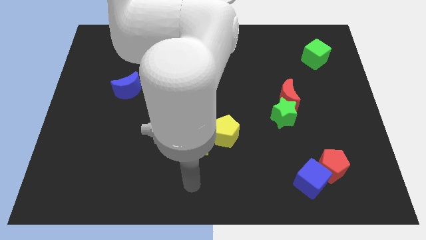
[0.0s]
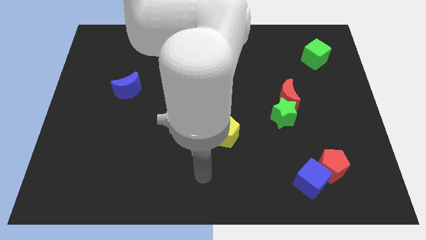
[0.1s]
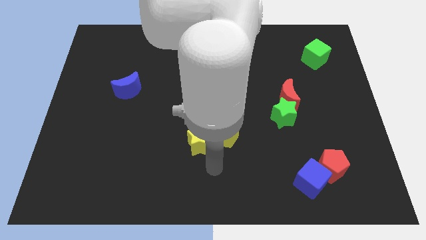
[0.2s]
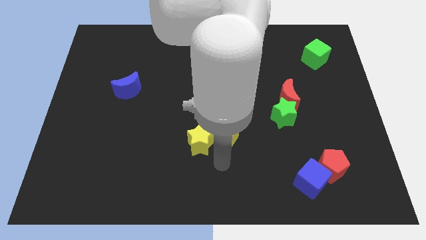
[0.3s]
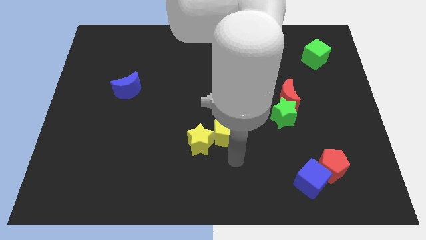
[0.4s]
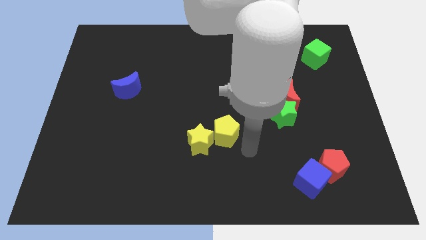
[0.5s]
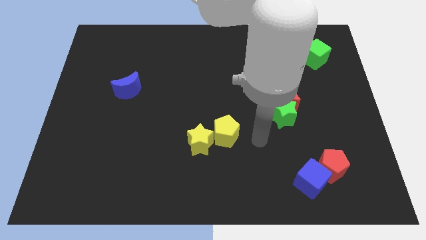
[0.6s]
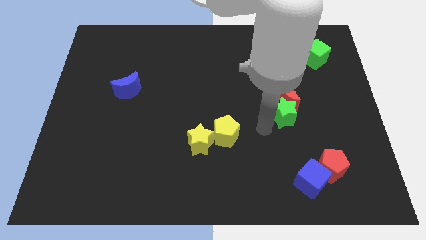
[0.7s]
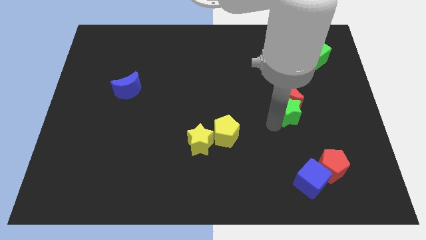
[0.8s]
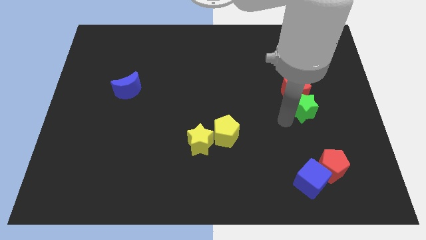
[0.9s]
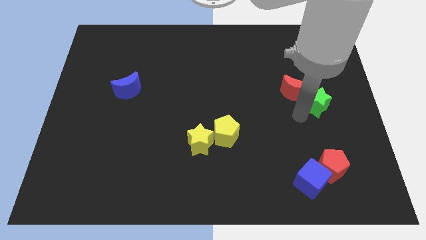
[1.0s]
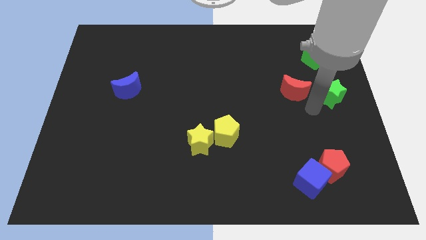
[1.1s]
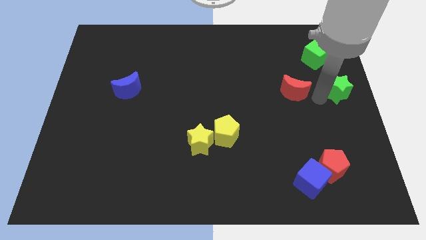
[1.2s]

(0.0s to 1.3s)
pull the red moon apart from the green star

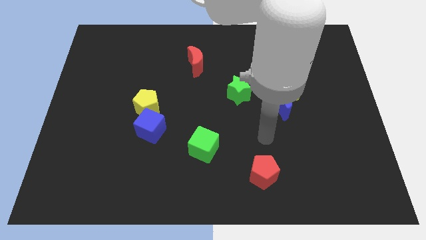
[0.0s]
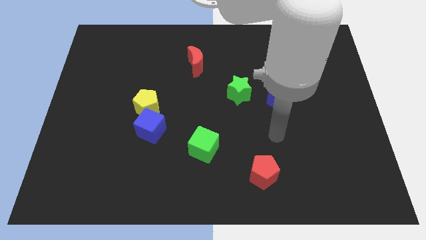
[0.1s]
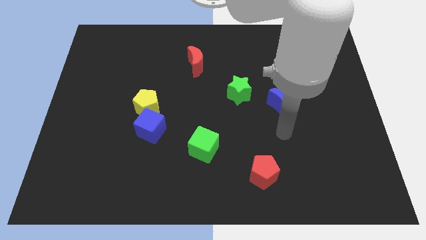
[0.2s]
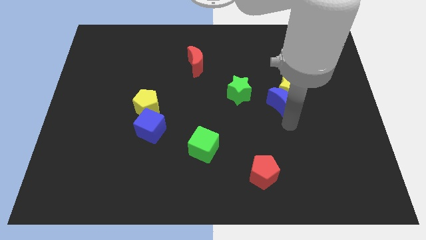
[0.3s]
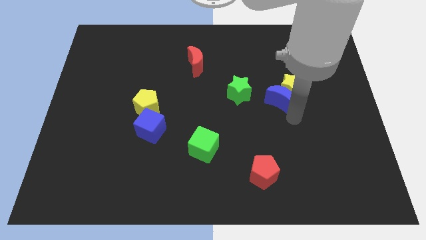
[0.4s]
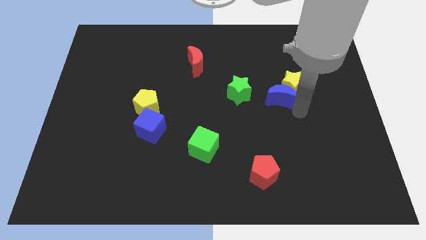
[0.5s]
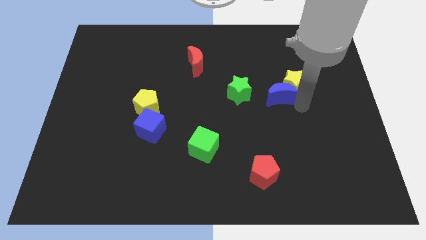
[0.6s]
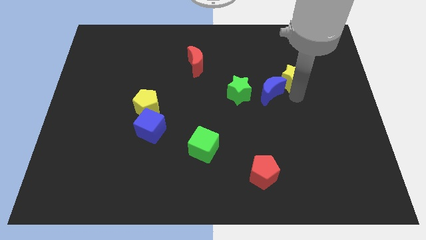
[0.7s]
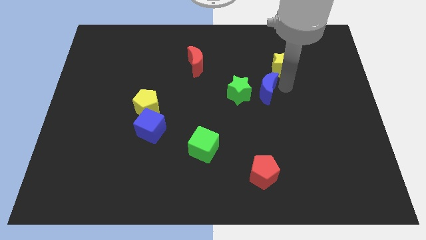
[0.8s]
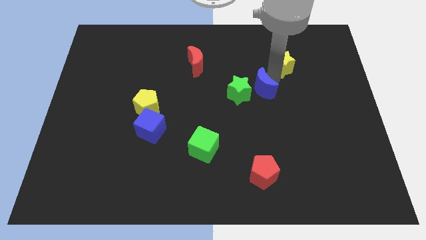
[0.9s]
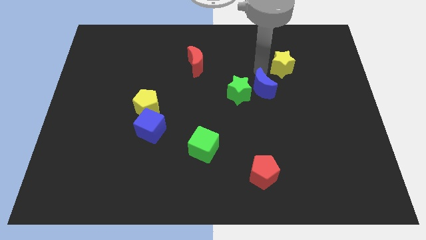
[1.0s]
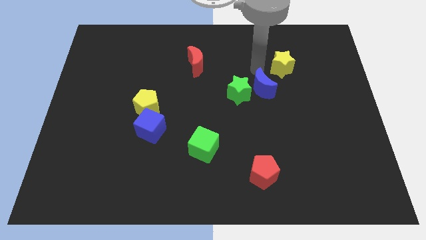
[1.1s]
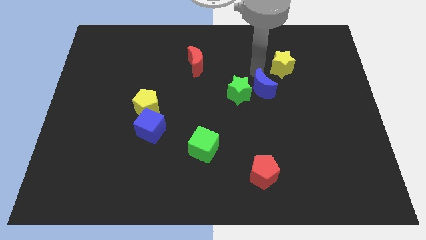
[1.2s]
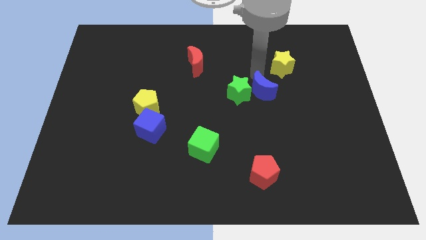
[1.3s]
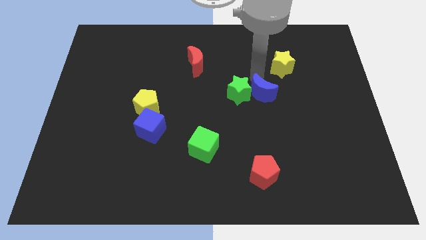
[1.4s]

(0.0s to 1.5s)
pull the blue moon apart from the yellow star

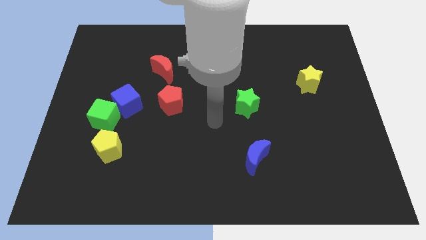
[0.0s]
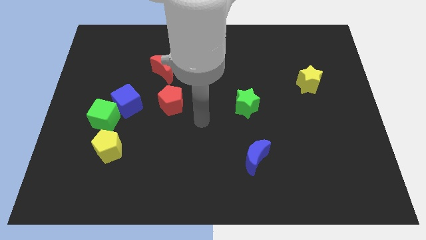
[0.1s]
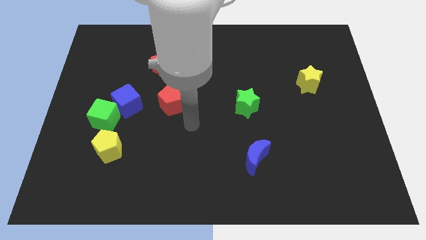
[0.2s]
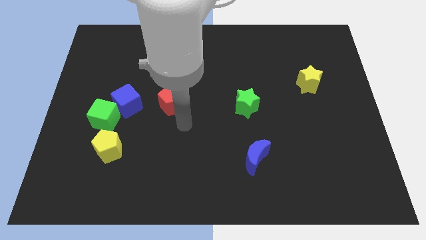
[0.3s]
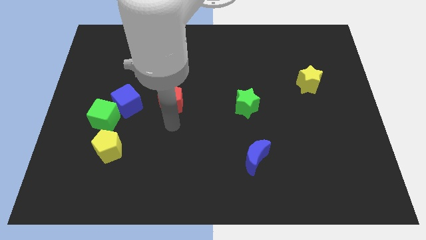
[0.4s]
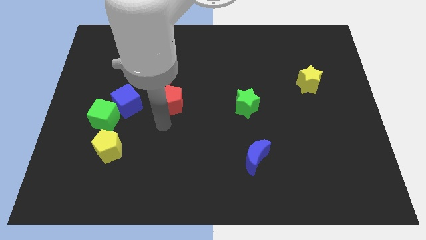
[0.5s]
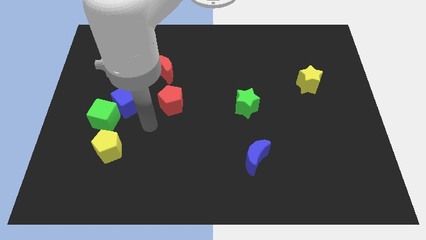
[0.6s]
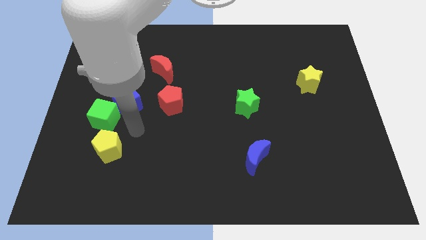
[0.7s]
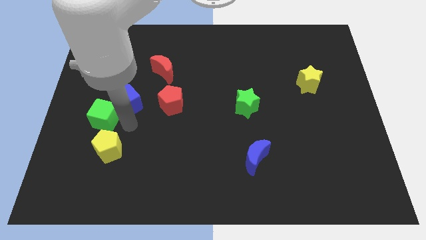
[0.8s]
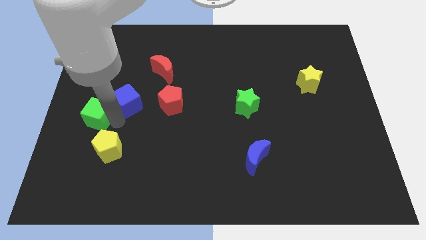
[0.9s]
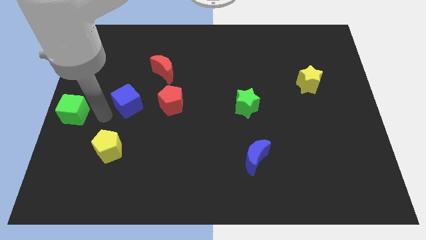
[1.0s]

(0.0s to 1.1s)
move the blue cube away from the green cube

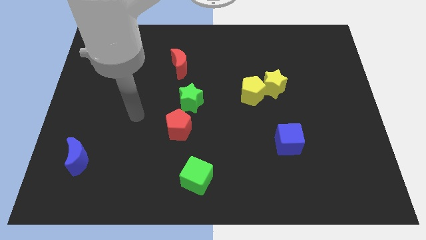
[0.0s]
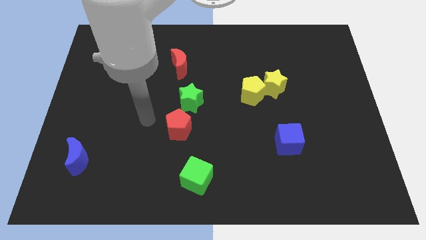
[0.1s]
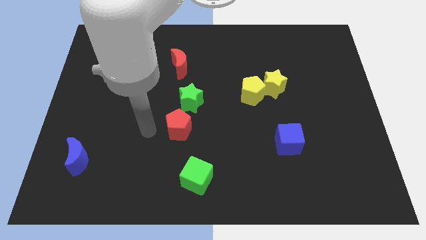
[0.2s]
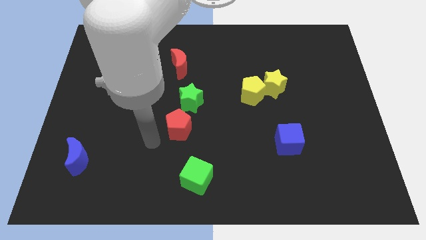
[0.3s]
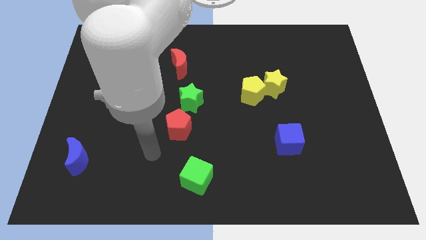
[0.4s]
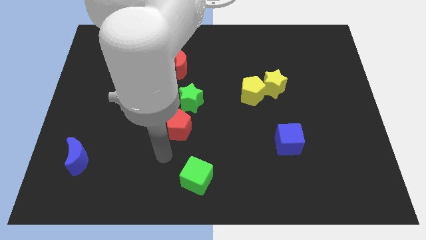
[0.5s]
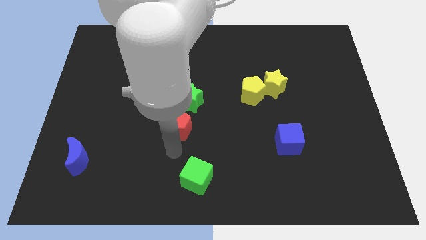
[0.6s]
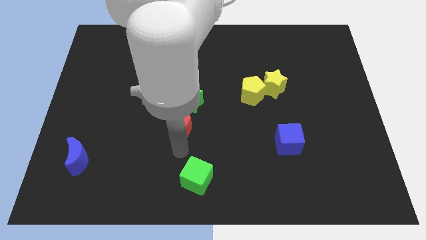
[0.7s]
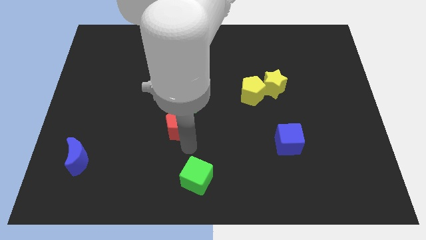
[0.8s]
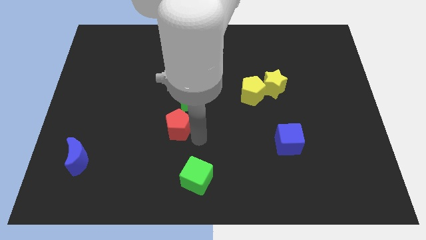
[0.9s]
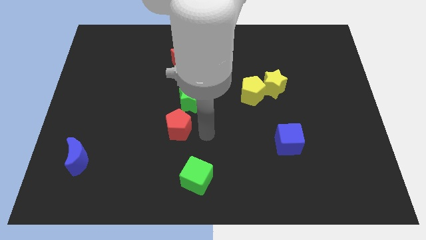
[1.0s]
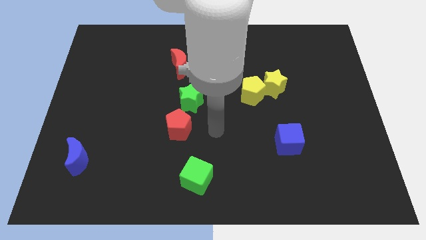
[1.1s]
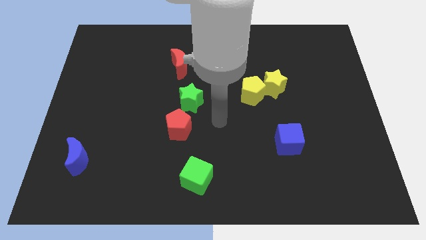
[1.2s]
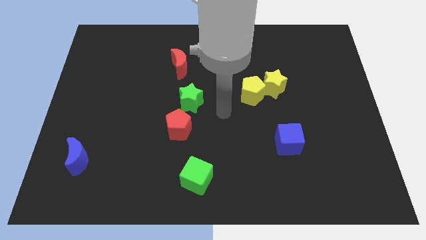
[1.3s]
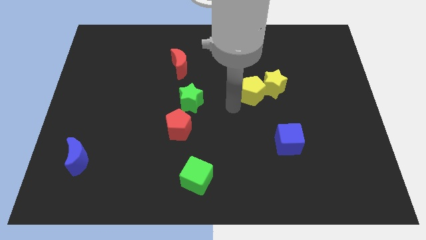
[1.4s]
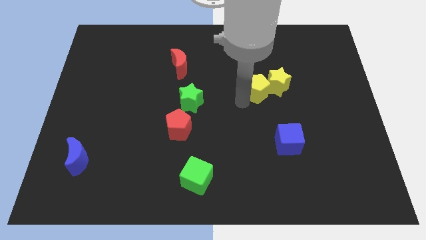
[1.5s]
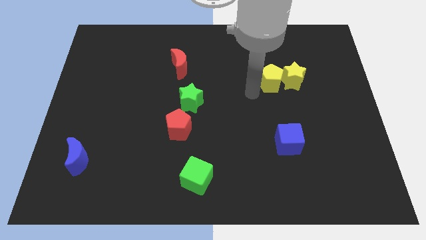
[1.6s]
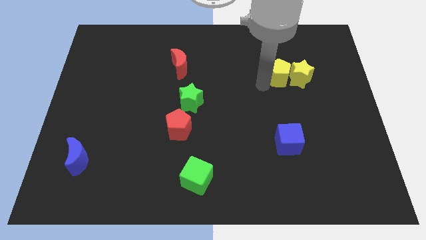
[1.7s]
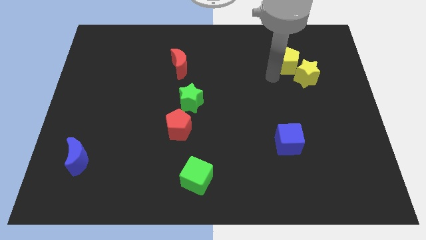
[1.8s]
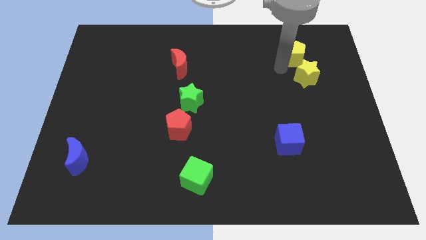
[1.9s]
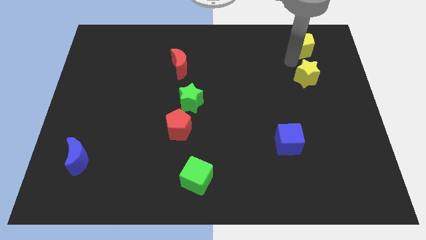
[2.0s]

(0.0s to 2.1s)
separate the yellow star from the yellow pentagon

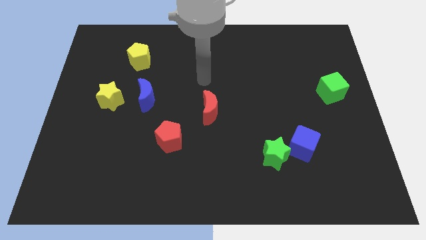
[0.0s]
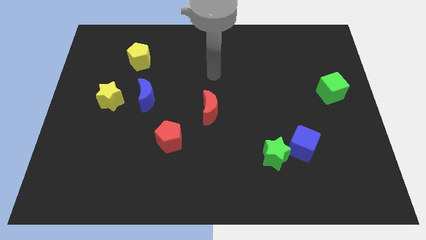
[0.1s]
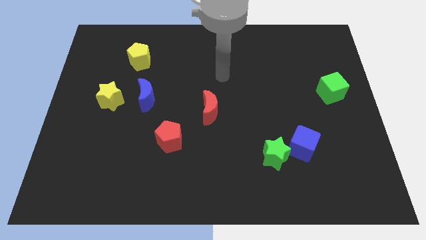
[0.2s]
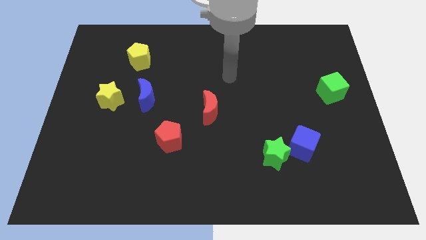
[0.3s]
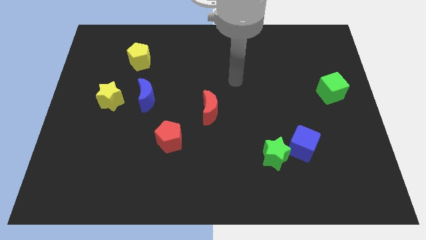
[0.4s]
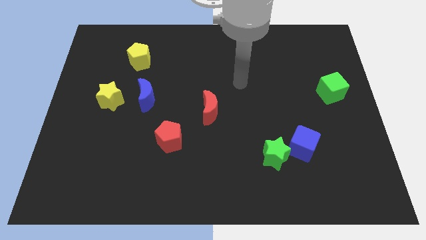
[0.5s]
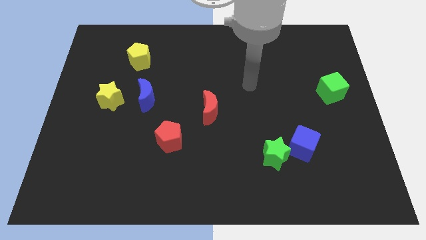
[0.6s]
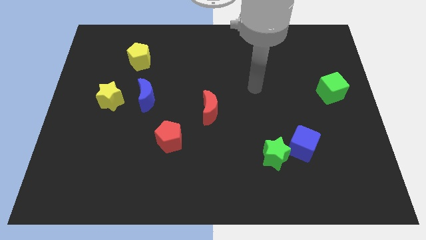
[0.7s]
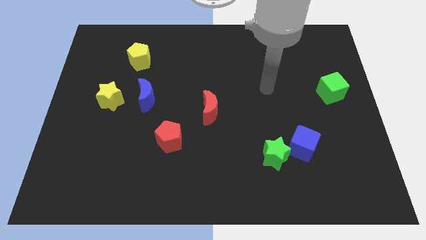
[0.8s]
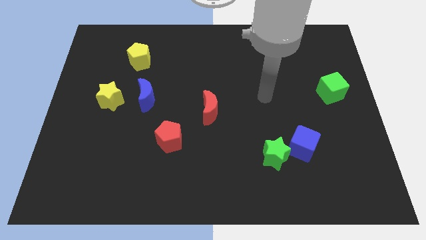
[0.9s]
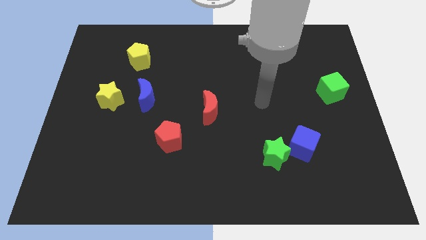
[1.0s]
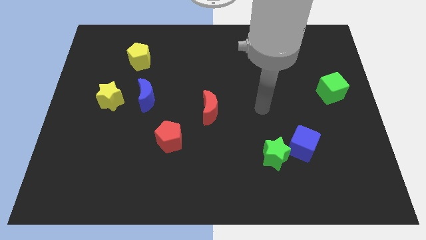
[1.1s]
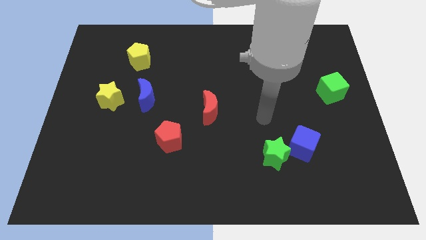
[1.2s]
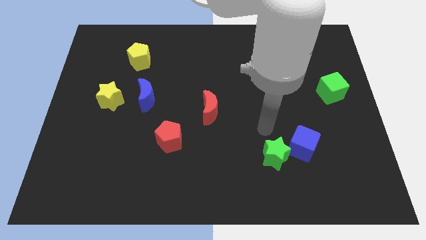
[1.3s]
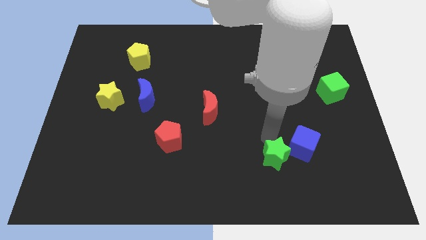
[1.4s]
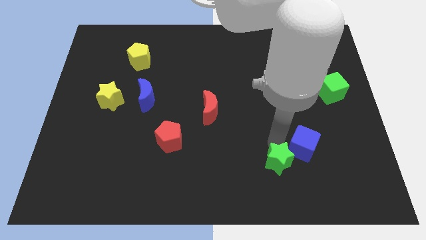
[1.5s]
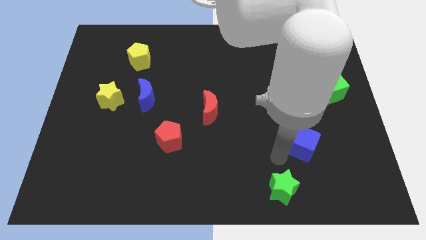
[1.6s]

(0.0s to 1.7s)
separate the blue cube from the green star

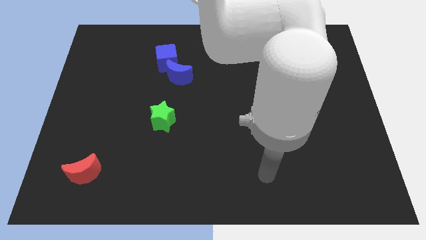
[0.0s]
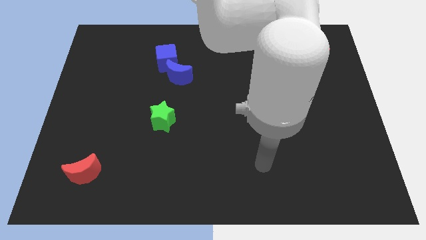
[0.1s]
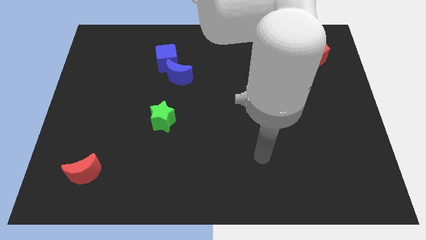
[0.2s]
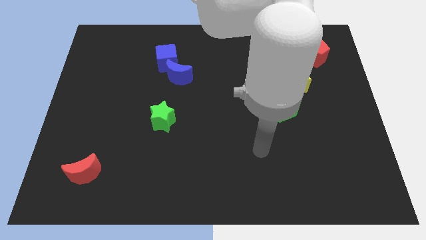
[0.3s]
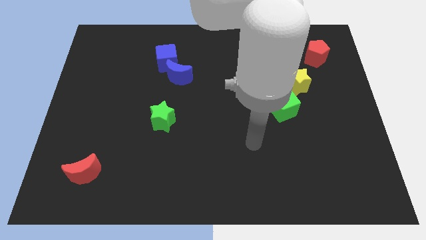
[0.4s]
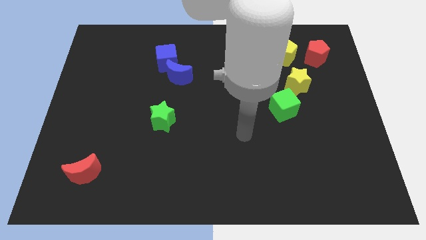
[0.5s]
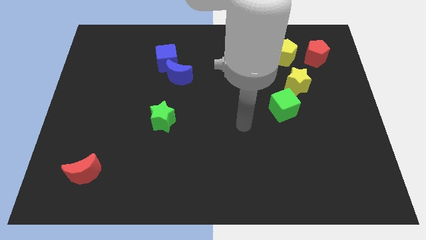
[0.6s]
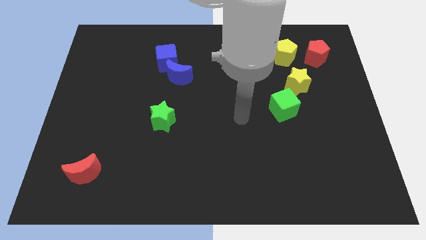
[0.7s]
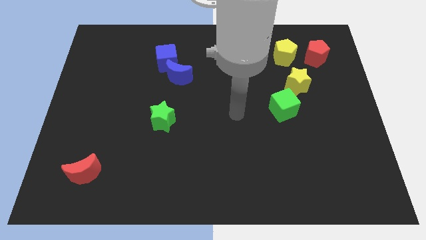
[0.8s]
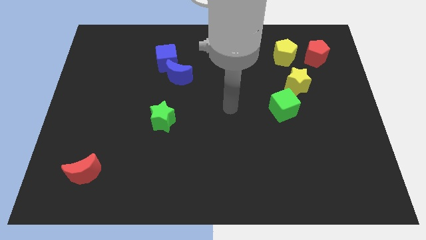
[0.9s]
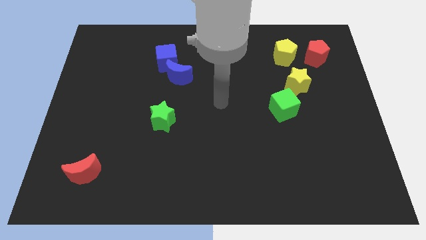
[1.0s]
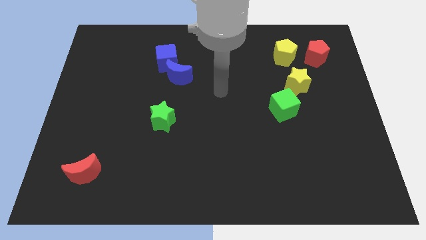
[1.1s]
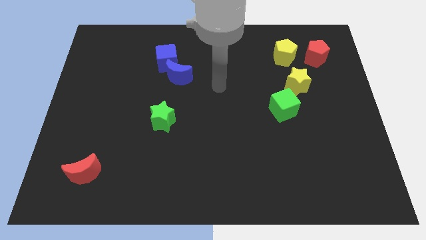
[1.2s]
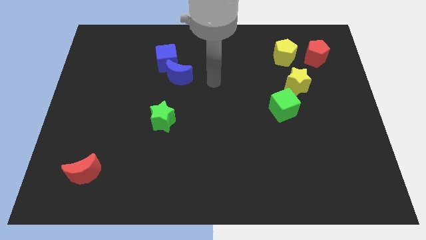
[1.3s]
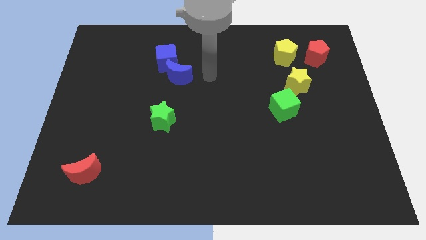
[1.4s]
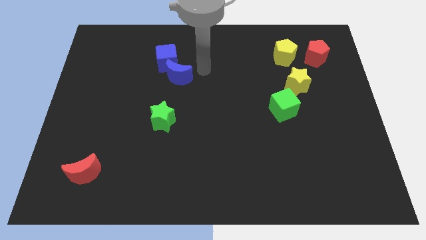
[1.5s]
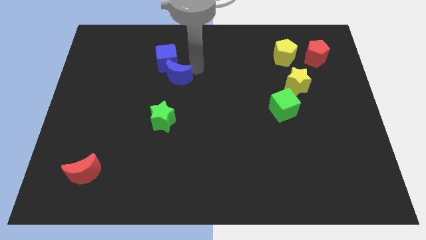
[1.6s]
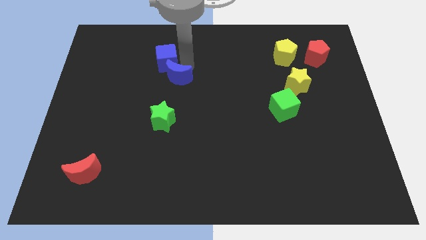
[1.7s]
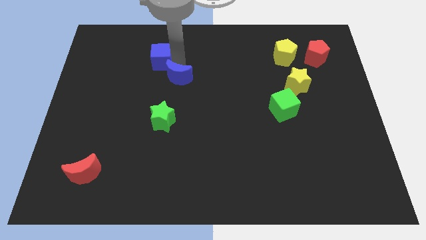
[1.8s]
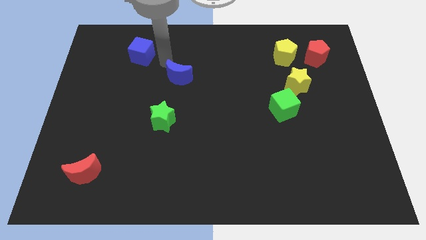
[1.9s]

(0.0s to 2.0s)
pull the blue moon apart from the blue cube
